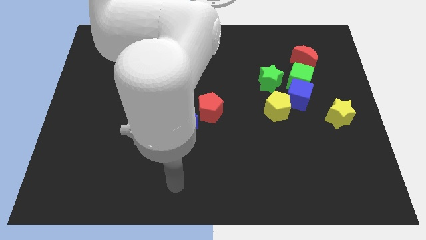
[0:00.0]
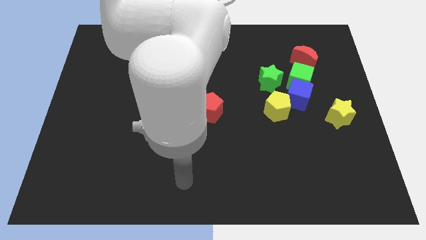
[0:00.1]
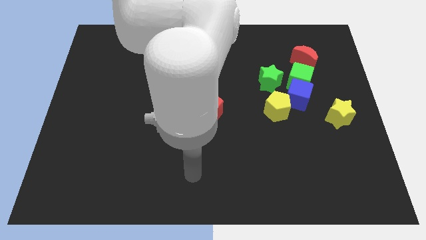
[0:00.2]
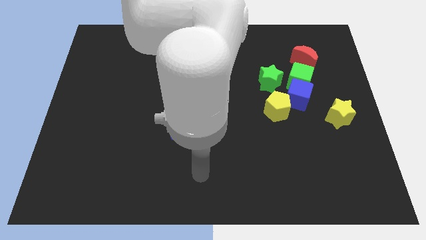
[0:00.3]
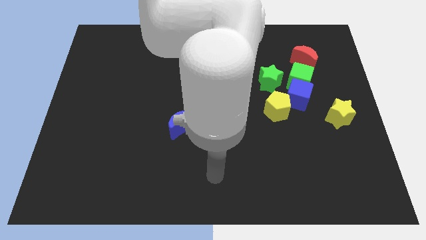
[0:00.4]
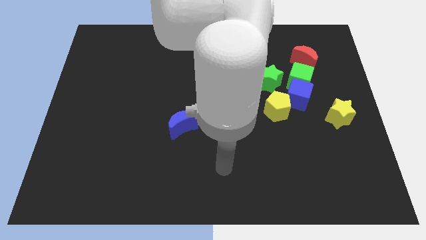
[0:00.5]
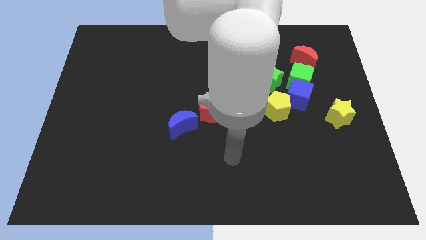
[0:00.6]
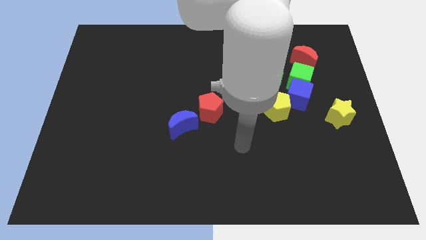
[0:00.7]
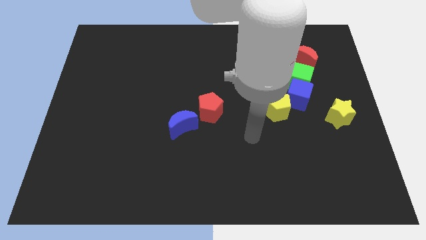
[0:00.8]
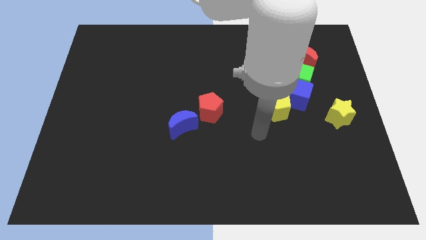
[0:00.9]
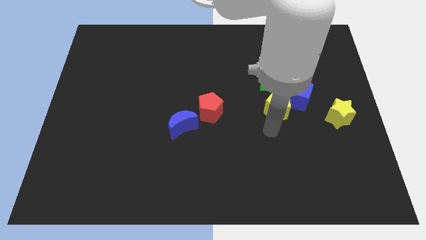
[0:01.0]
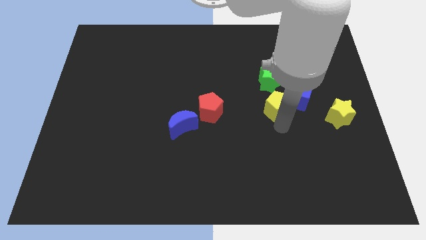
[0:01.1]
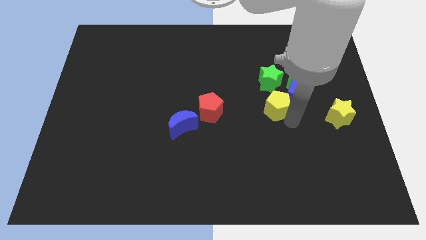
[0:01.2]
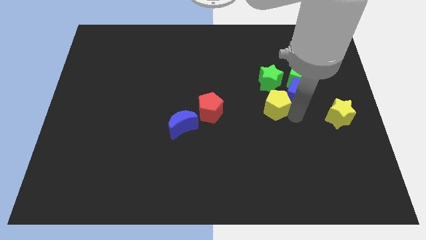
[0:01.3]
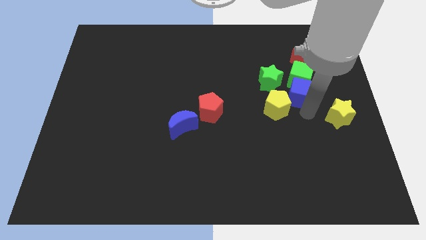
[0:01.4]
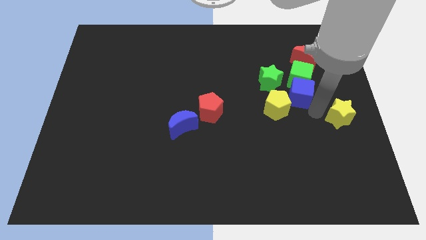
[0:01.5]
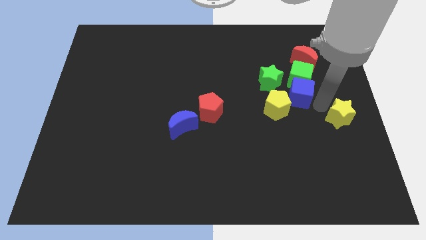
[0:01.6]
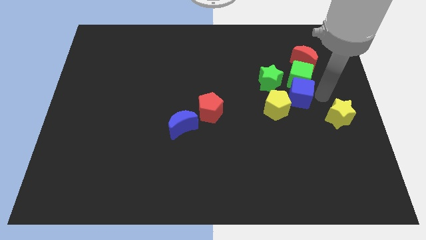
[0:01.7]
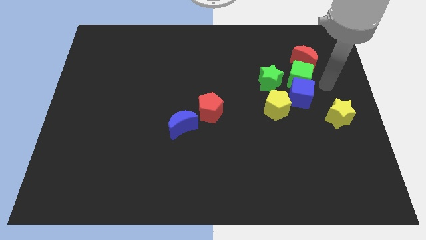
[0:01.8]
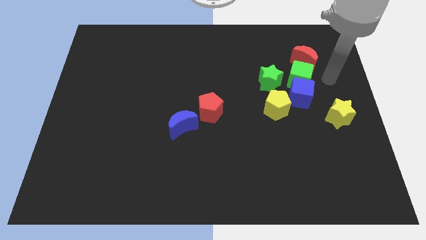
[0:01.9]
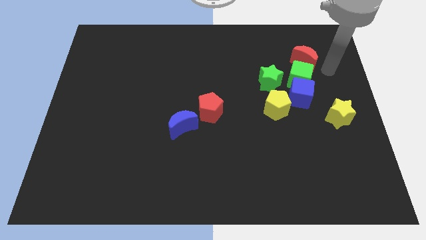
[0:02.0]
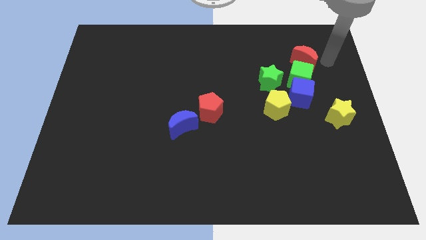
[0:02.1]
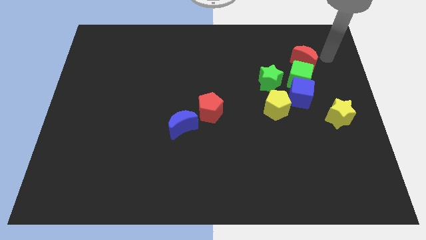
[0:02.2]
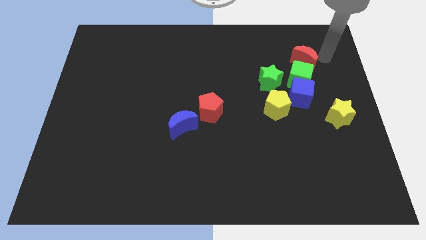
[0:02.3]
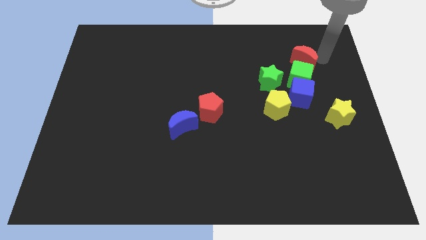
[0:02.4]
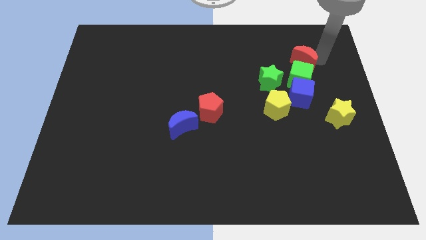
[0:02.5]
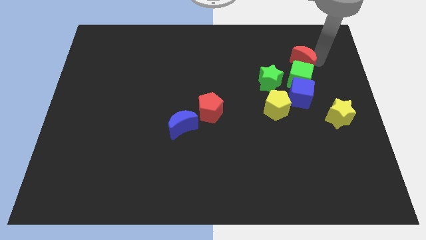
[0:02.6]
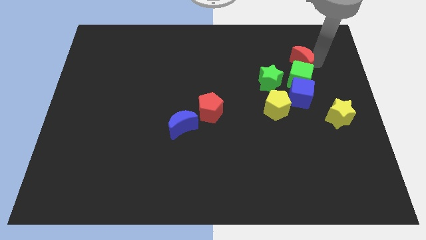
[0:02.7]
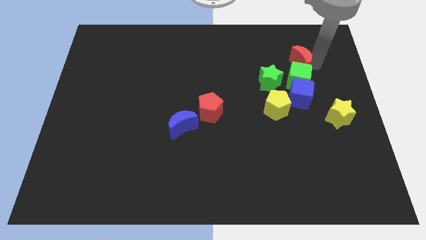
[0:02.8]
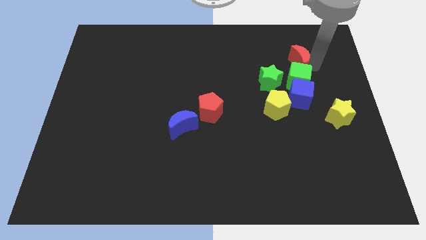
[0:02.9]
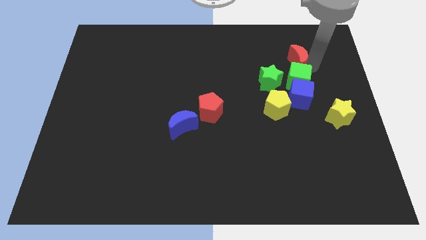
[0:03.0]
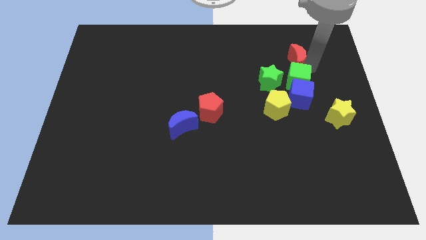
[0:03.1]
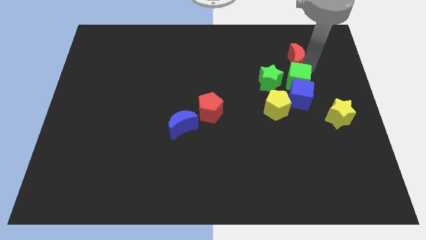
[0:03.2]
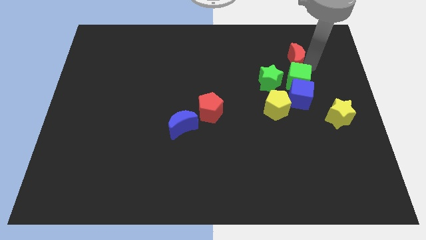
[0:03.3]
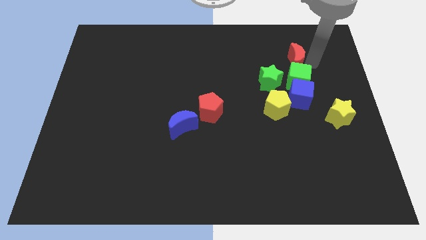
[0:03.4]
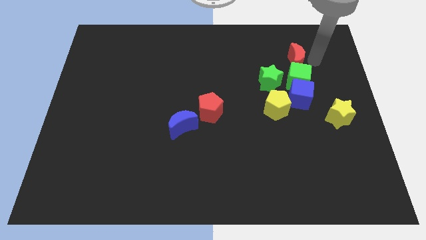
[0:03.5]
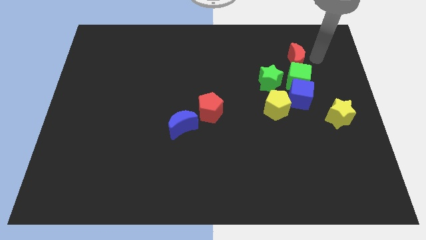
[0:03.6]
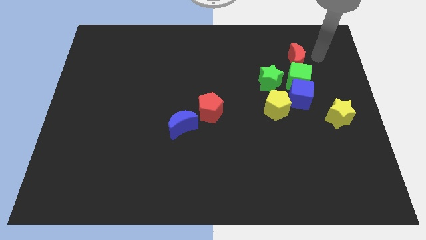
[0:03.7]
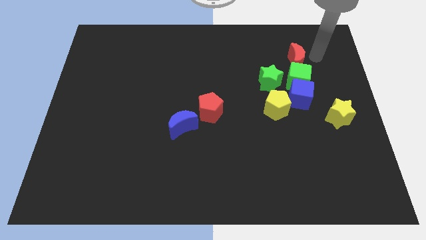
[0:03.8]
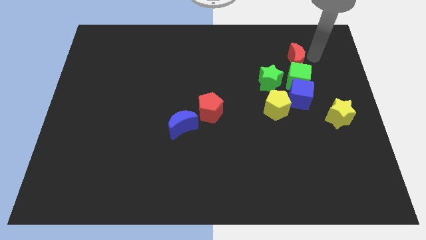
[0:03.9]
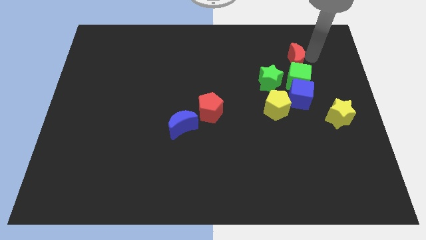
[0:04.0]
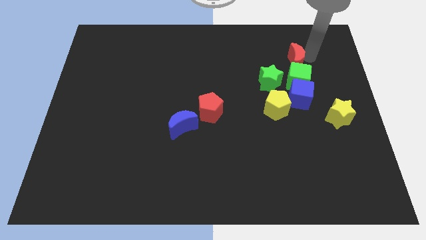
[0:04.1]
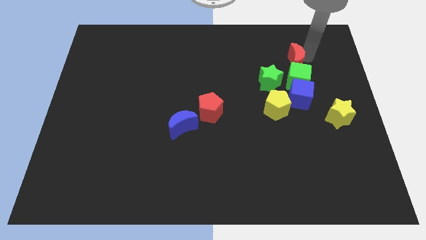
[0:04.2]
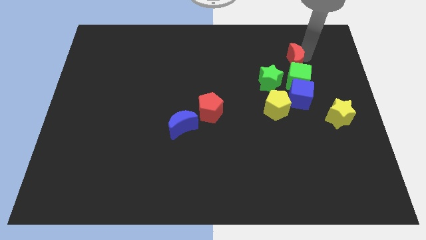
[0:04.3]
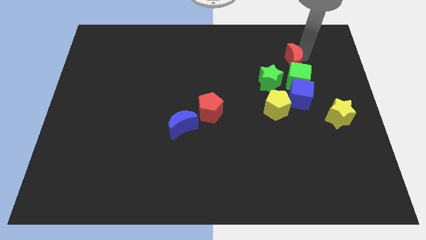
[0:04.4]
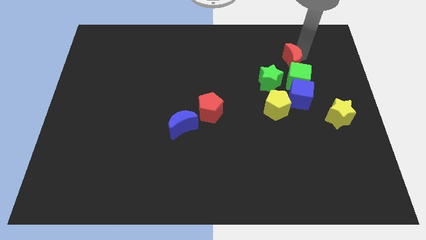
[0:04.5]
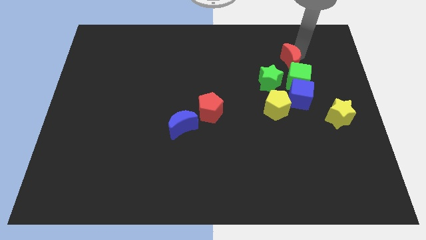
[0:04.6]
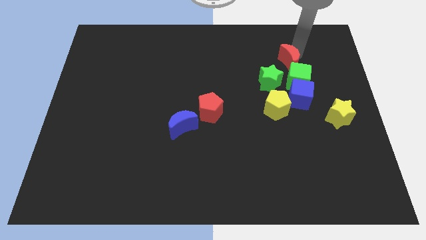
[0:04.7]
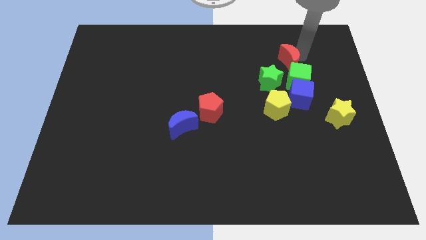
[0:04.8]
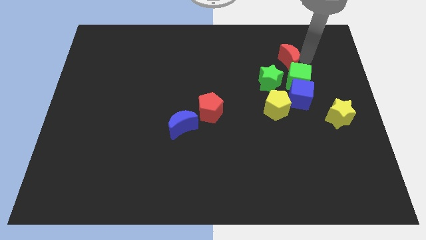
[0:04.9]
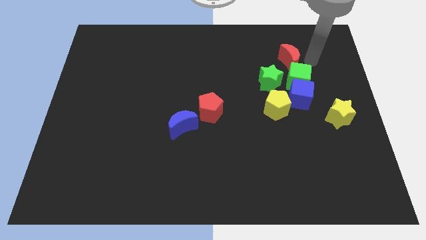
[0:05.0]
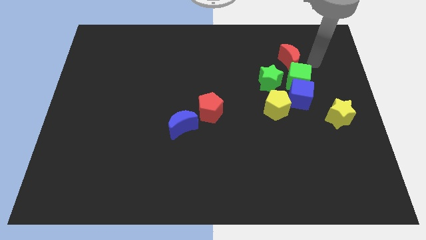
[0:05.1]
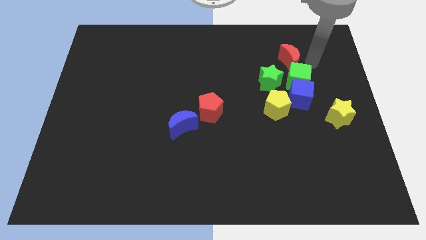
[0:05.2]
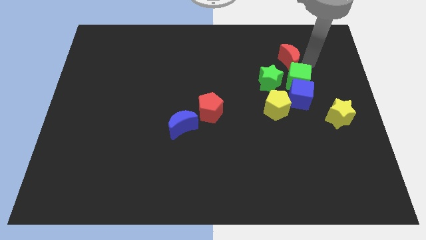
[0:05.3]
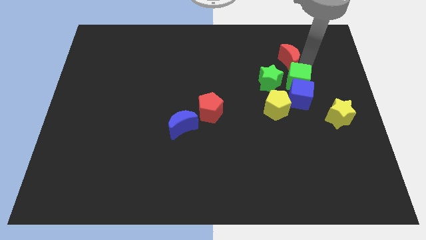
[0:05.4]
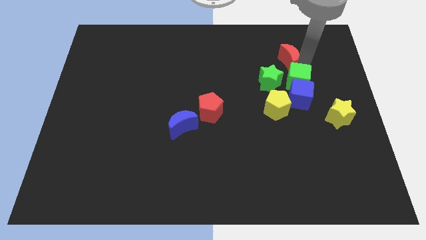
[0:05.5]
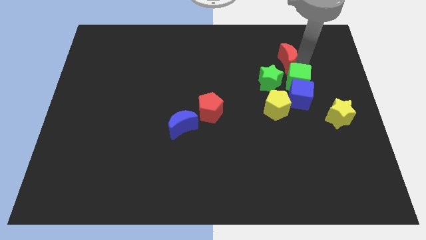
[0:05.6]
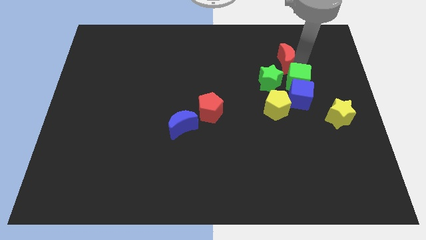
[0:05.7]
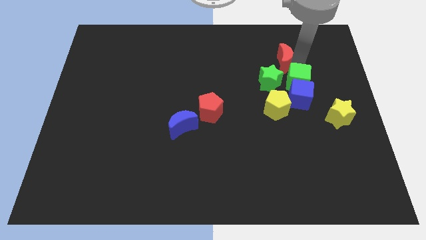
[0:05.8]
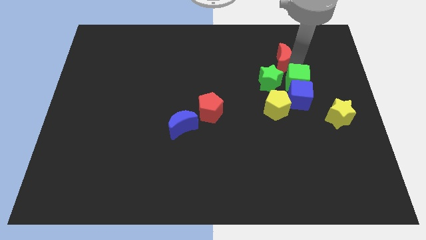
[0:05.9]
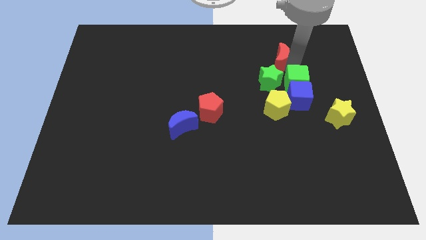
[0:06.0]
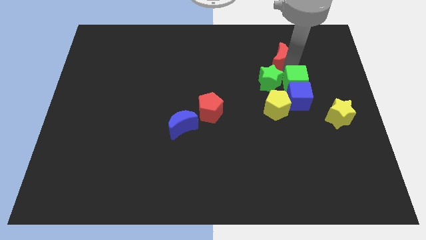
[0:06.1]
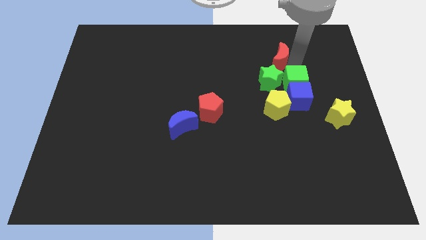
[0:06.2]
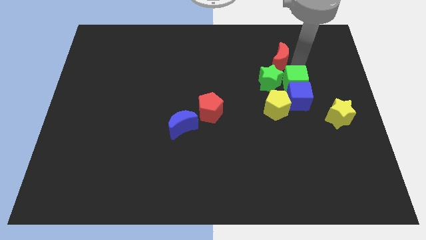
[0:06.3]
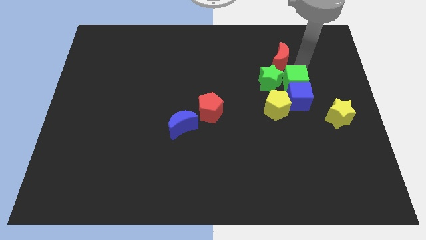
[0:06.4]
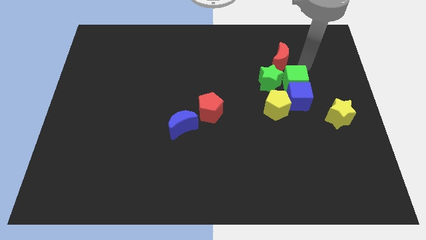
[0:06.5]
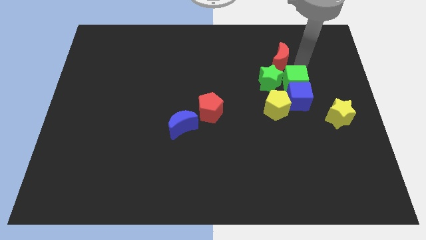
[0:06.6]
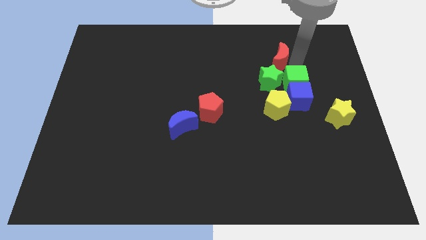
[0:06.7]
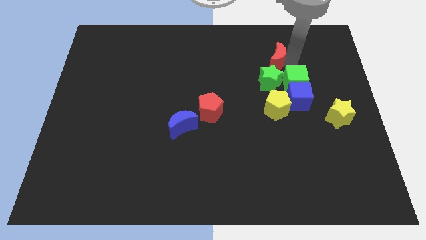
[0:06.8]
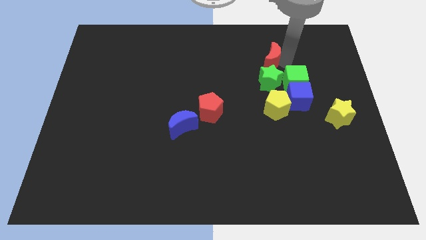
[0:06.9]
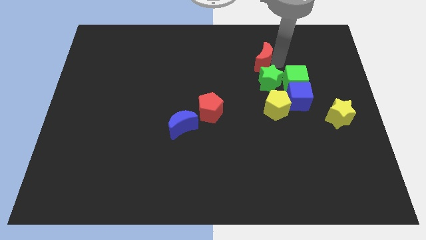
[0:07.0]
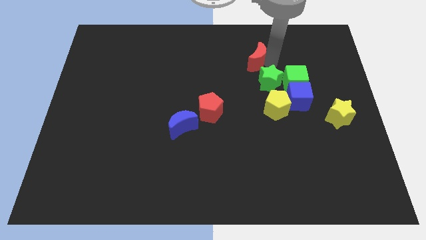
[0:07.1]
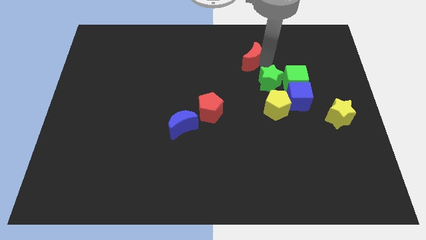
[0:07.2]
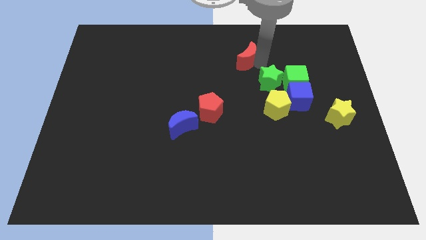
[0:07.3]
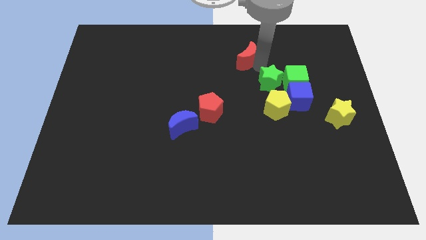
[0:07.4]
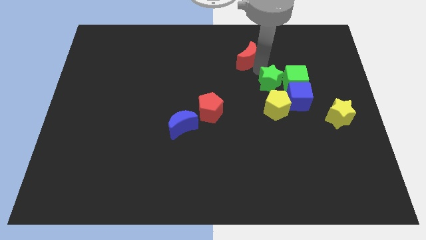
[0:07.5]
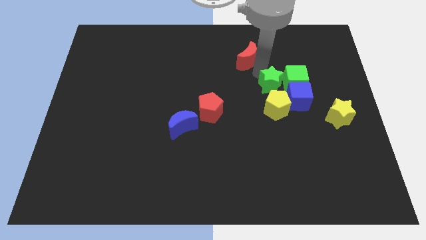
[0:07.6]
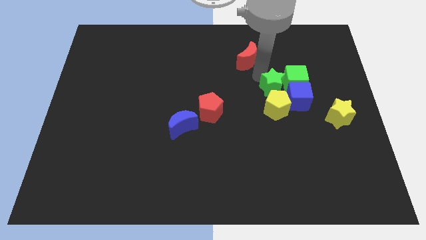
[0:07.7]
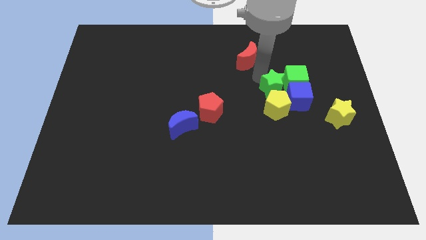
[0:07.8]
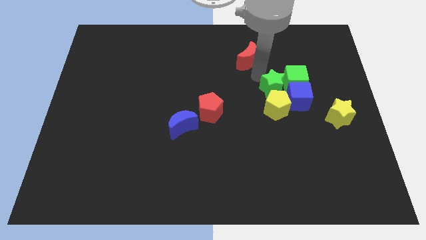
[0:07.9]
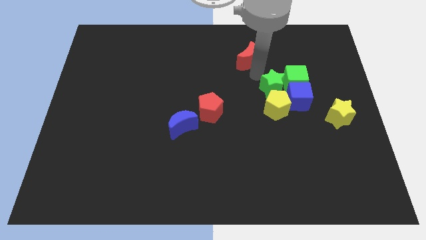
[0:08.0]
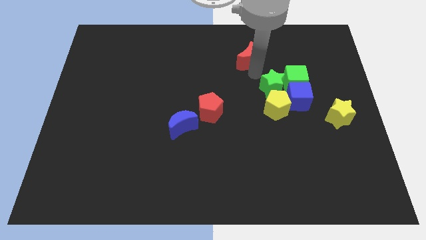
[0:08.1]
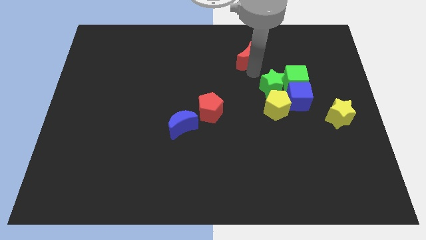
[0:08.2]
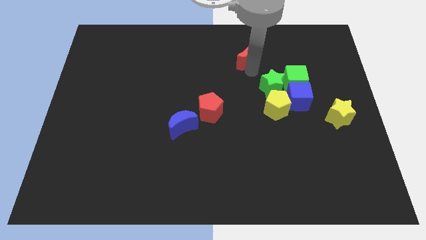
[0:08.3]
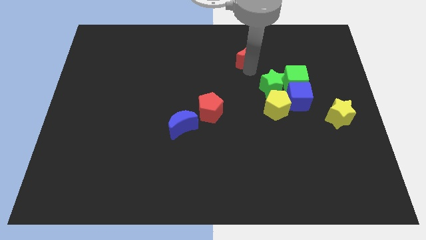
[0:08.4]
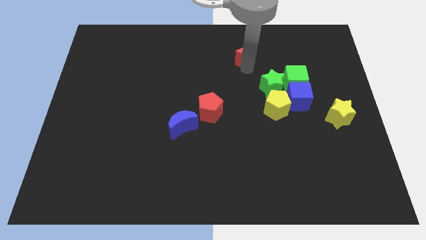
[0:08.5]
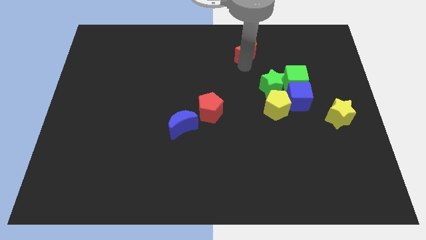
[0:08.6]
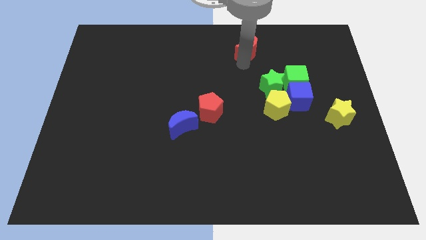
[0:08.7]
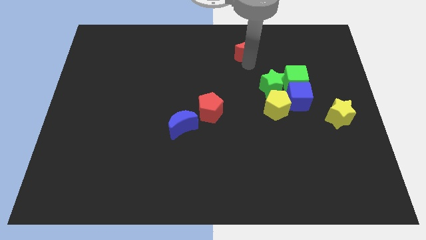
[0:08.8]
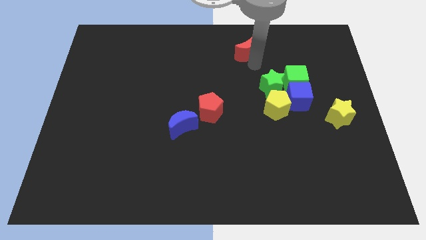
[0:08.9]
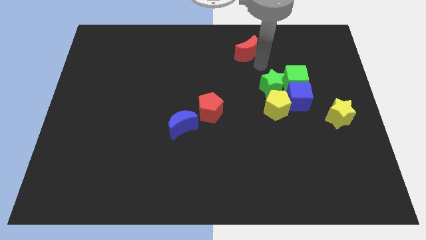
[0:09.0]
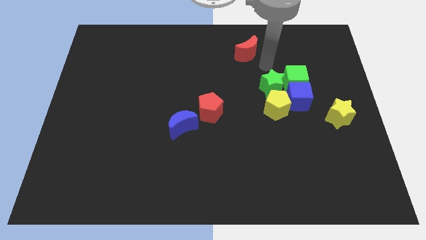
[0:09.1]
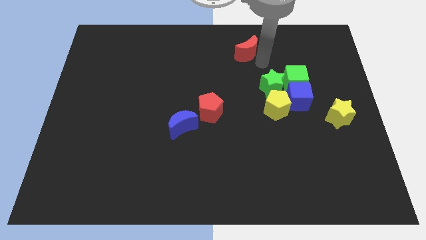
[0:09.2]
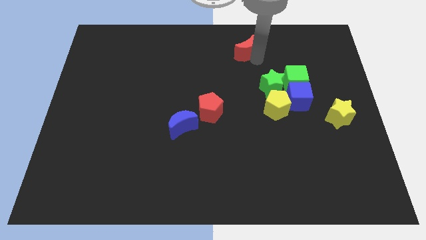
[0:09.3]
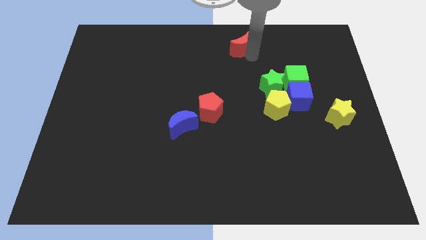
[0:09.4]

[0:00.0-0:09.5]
slide the red moon to the top
